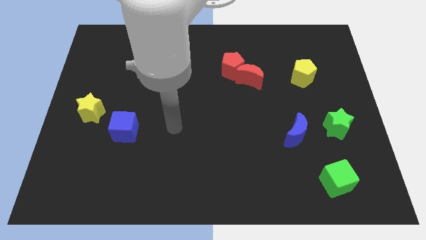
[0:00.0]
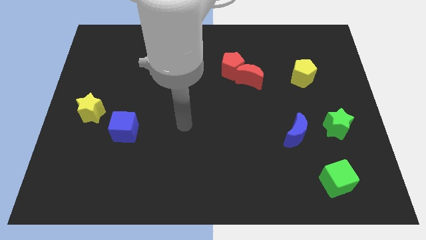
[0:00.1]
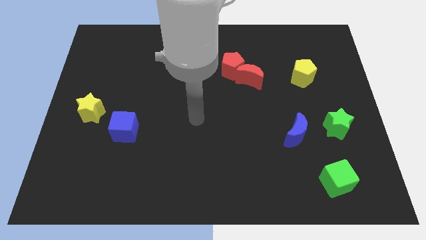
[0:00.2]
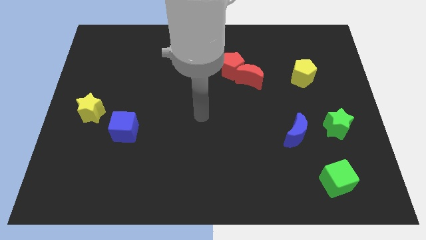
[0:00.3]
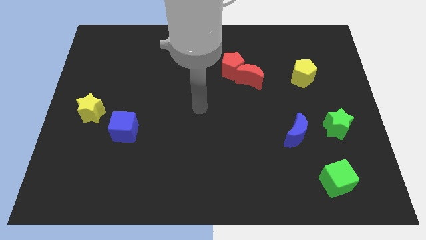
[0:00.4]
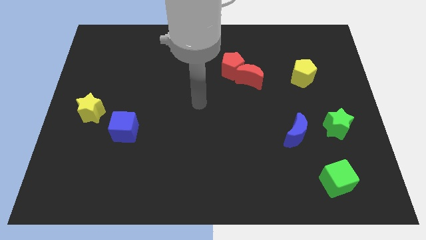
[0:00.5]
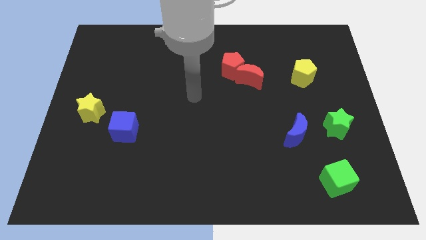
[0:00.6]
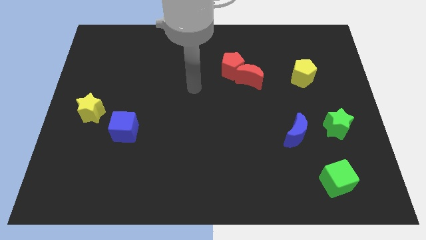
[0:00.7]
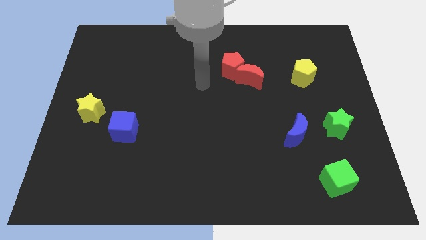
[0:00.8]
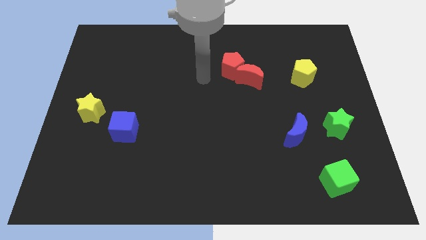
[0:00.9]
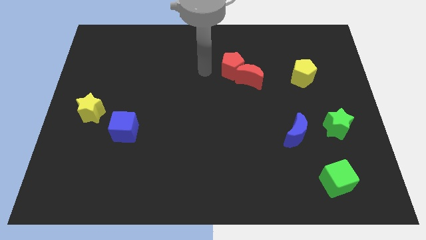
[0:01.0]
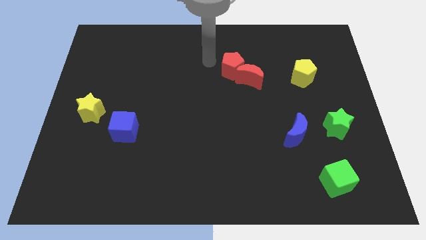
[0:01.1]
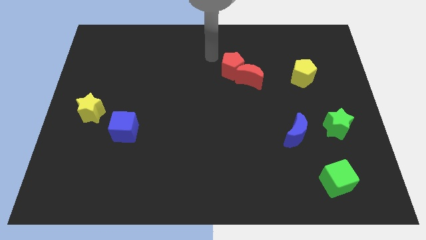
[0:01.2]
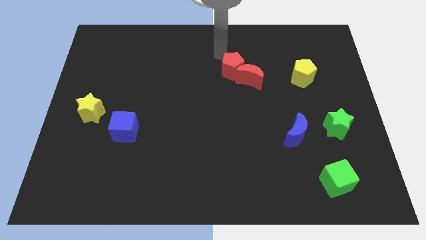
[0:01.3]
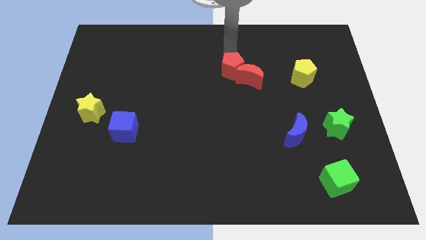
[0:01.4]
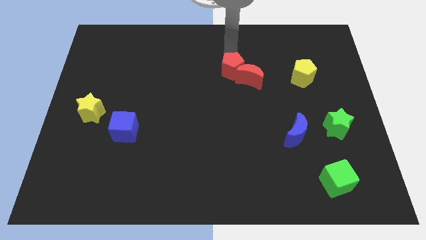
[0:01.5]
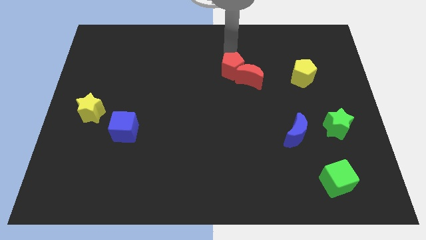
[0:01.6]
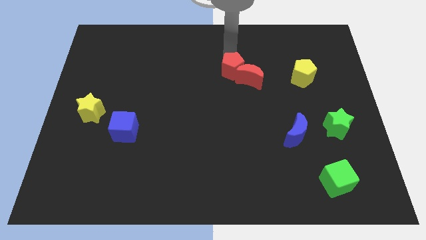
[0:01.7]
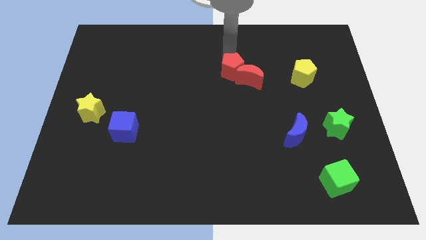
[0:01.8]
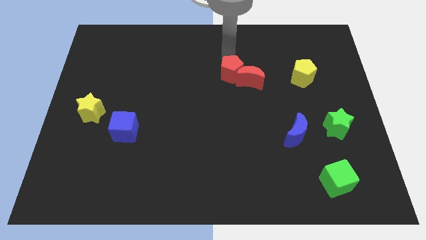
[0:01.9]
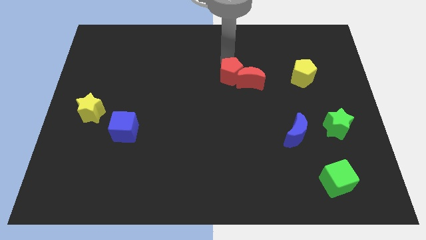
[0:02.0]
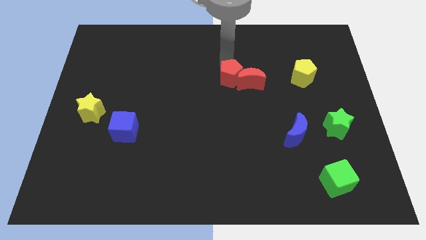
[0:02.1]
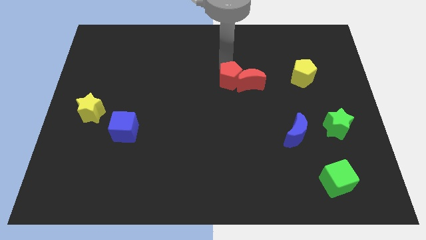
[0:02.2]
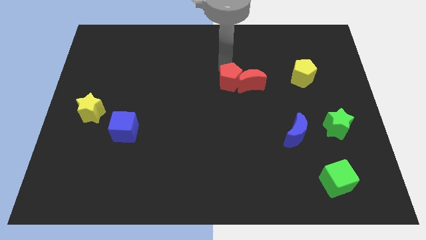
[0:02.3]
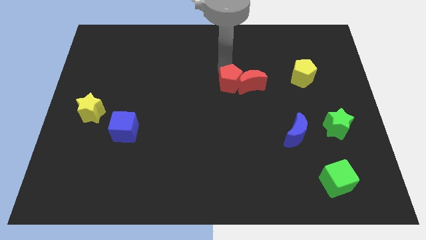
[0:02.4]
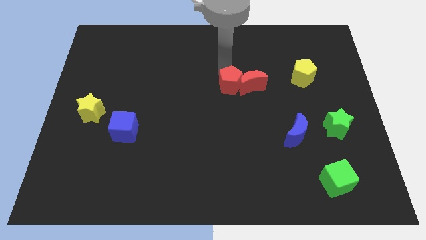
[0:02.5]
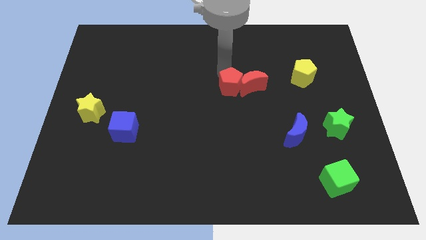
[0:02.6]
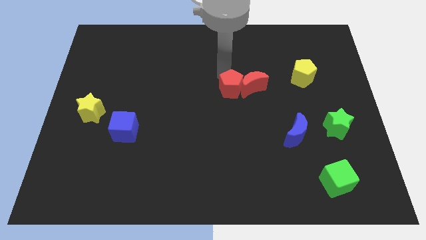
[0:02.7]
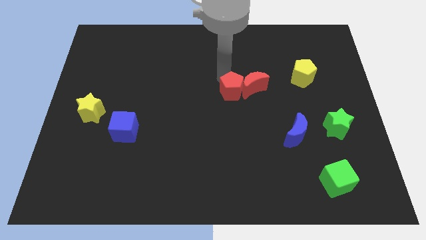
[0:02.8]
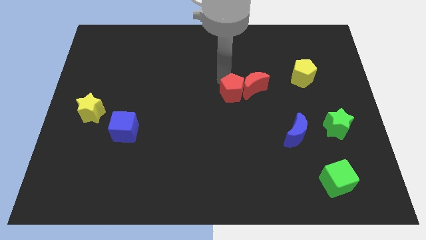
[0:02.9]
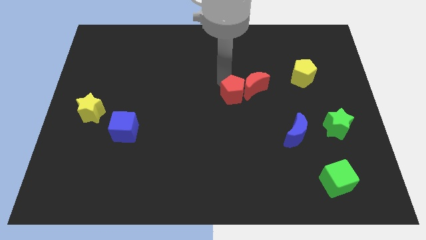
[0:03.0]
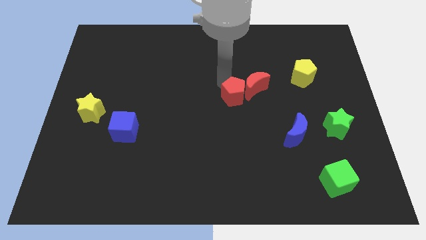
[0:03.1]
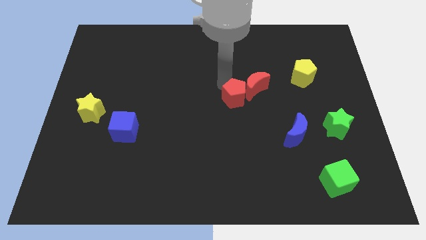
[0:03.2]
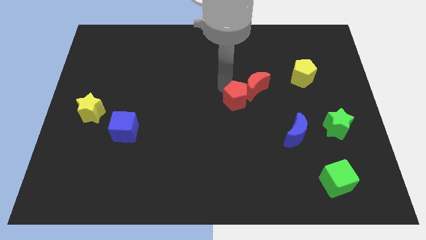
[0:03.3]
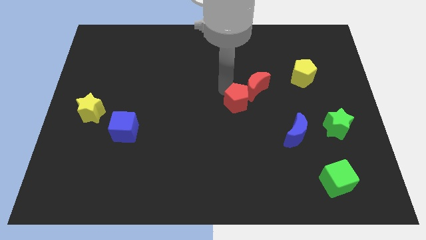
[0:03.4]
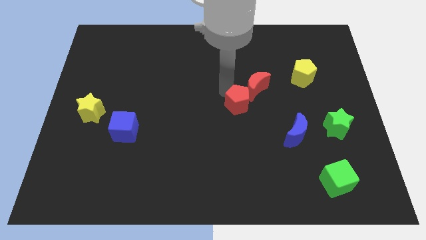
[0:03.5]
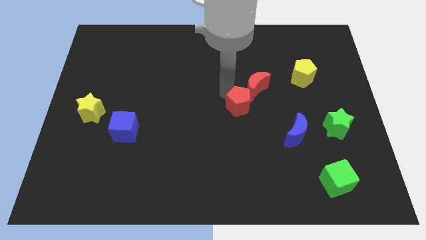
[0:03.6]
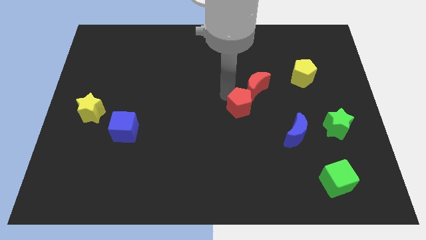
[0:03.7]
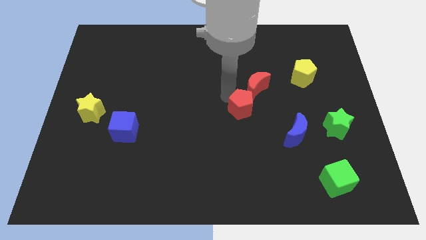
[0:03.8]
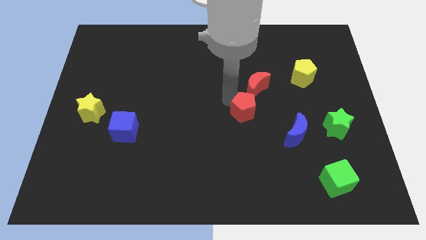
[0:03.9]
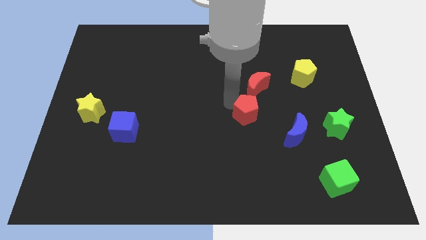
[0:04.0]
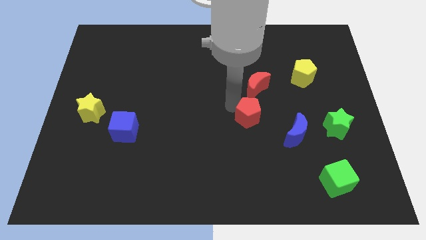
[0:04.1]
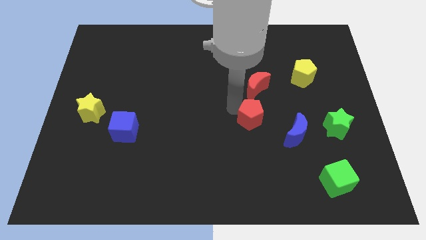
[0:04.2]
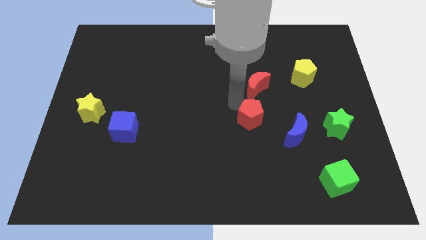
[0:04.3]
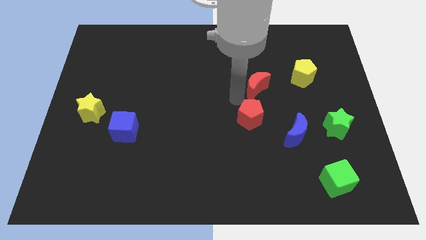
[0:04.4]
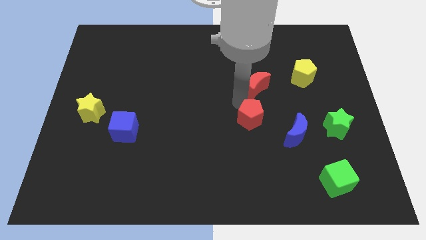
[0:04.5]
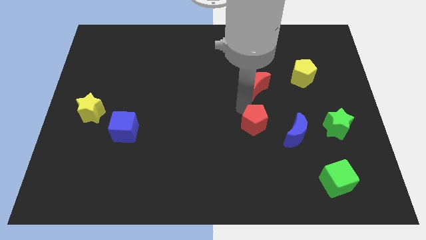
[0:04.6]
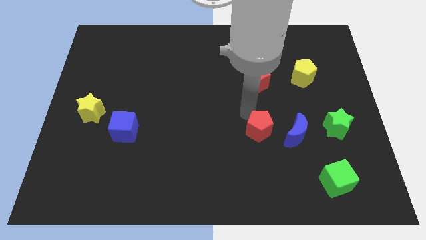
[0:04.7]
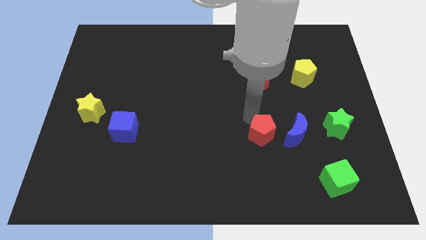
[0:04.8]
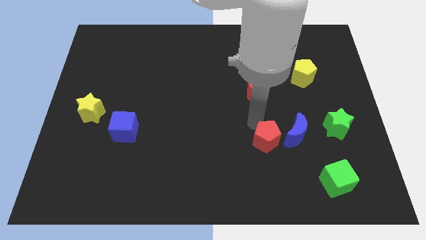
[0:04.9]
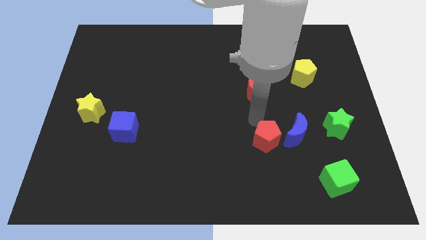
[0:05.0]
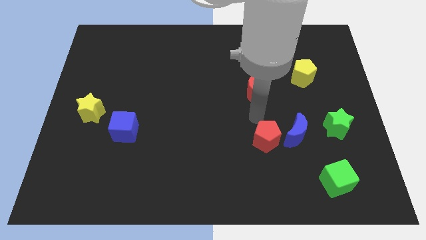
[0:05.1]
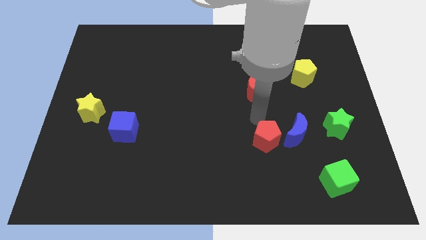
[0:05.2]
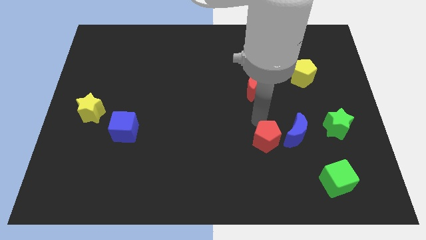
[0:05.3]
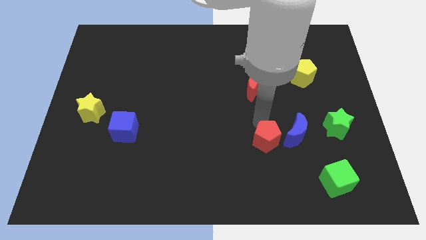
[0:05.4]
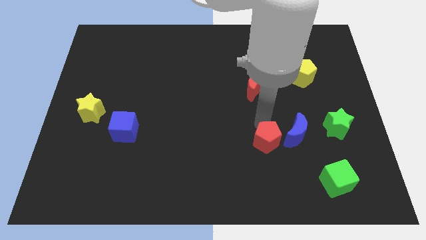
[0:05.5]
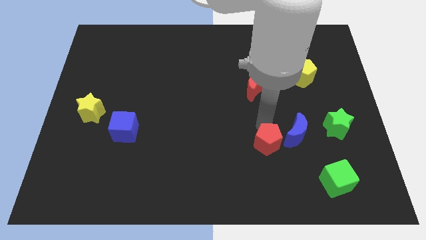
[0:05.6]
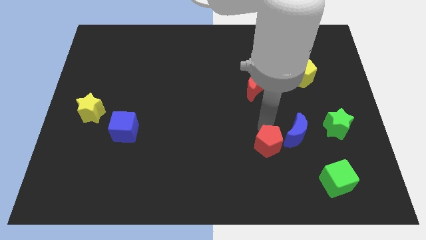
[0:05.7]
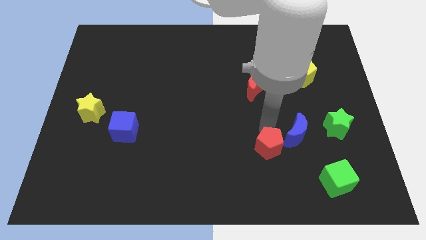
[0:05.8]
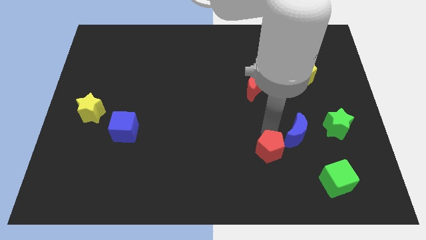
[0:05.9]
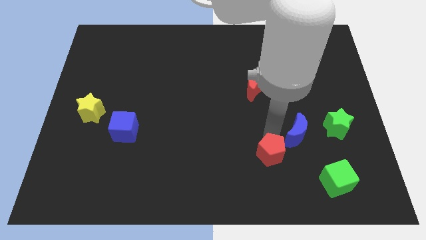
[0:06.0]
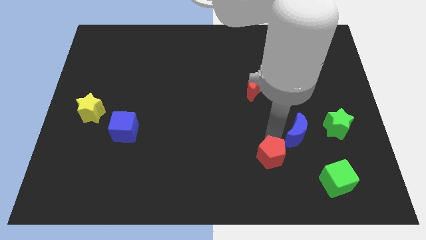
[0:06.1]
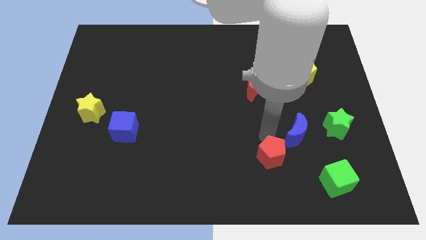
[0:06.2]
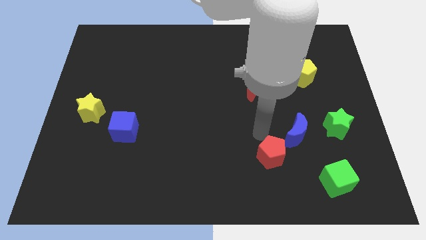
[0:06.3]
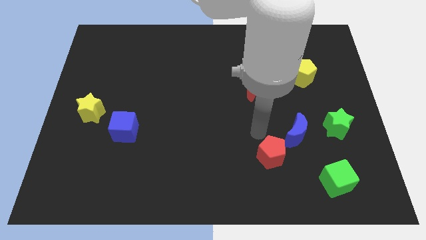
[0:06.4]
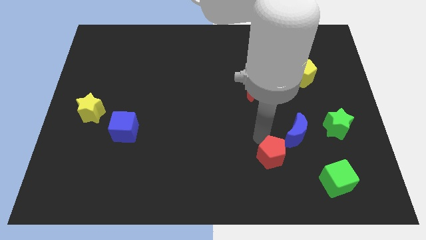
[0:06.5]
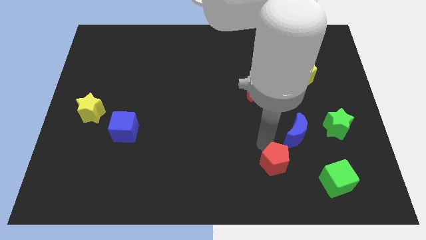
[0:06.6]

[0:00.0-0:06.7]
push the red pentagon to the left side of the green cube
